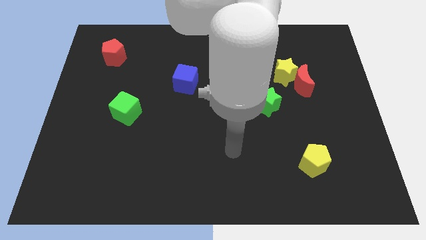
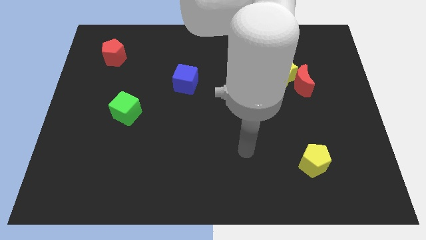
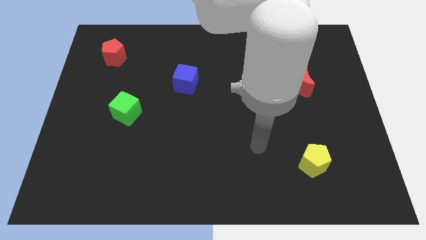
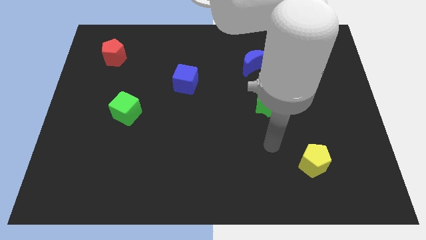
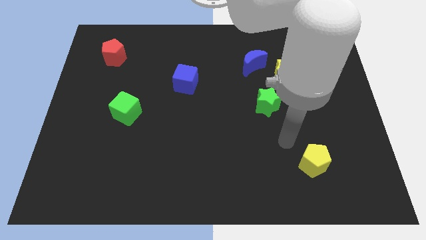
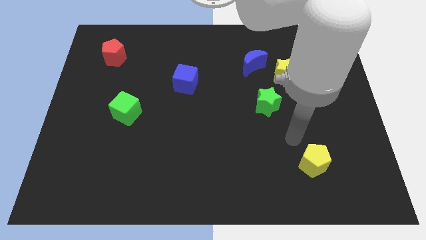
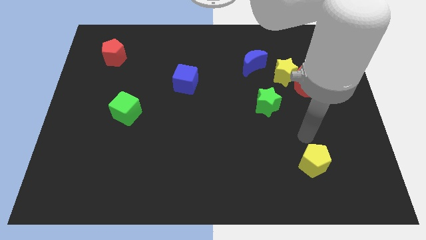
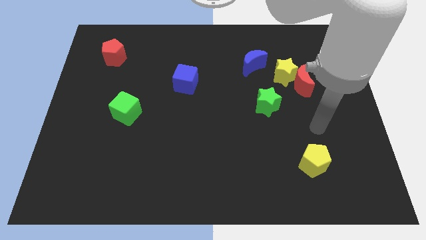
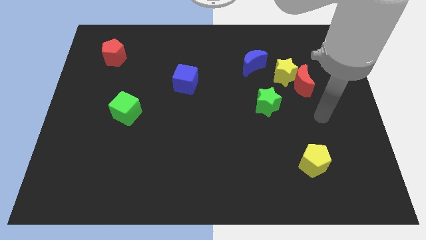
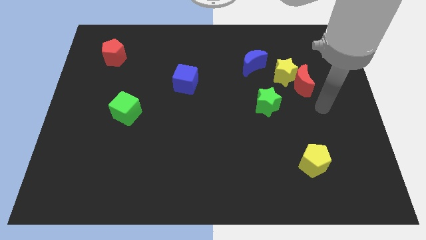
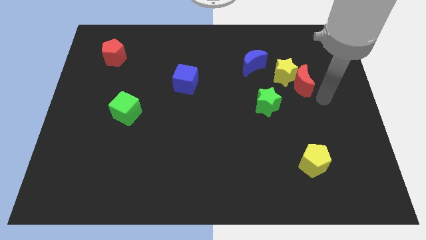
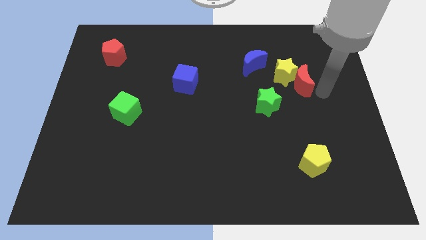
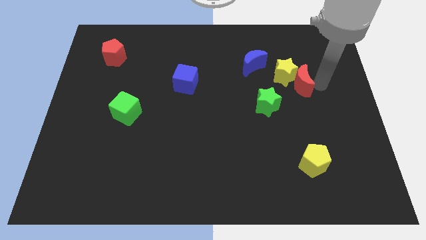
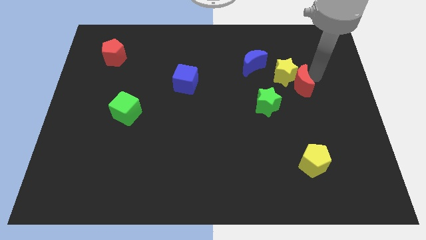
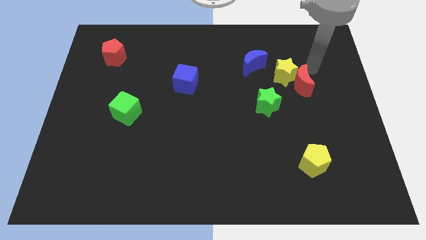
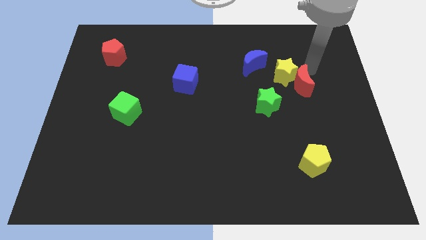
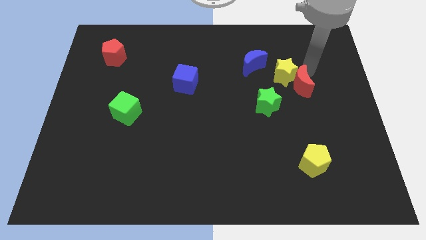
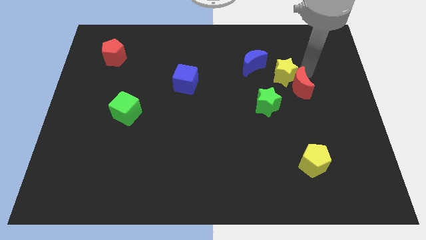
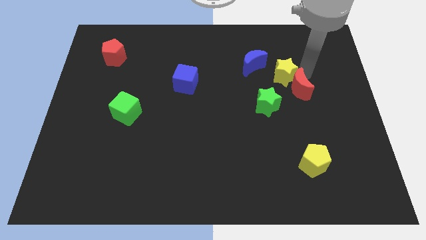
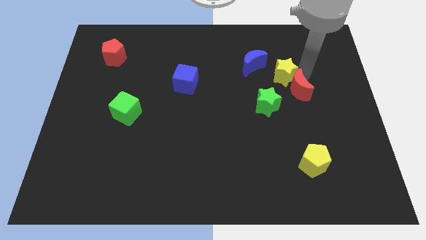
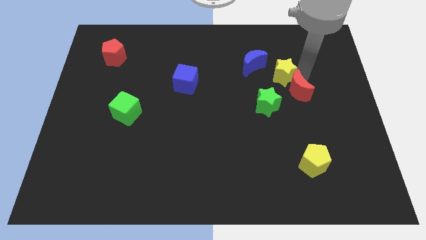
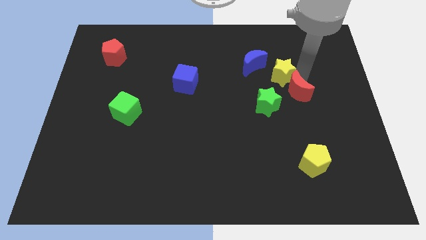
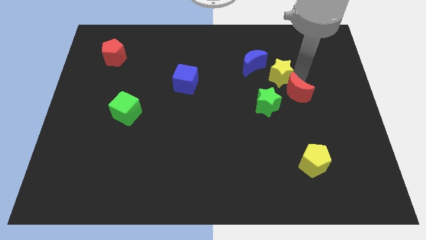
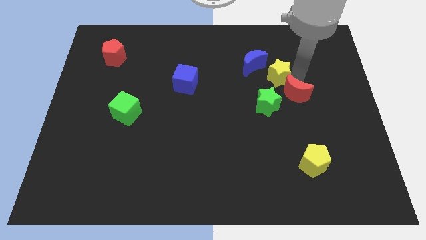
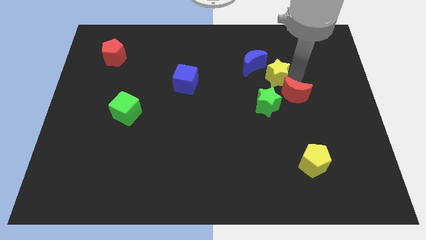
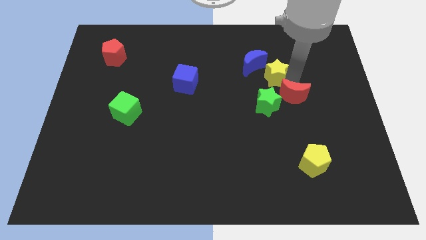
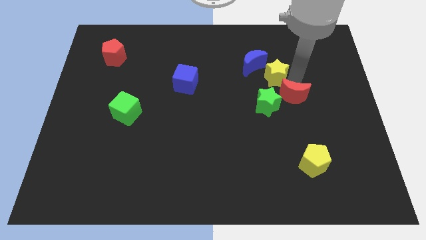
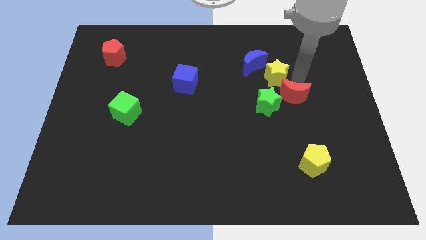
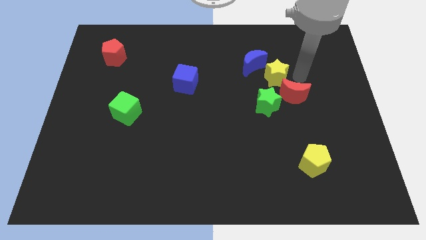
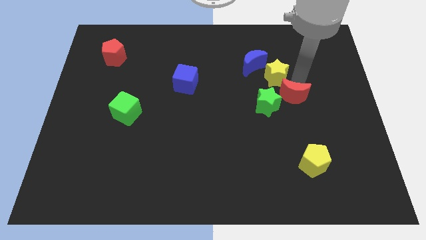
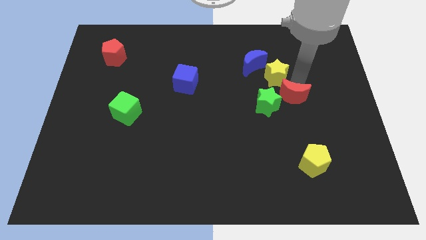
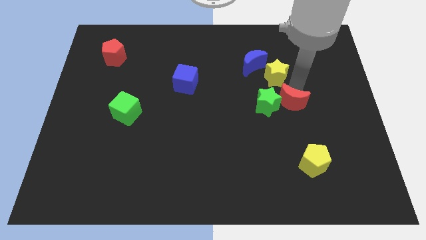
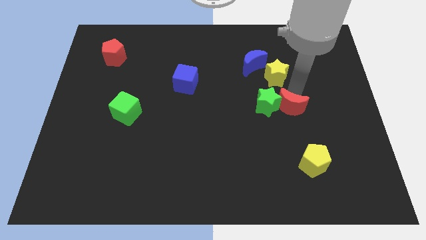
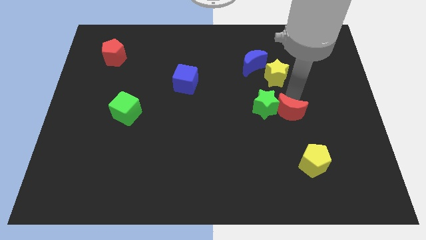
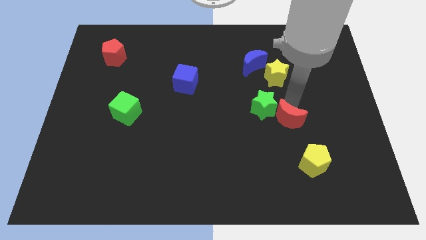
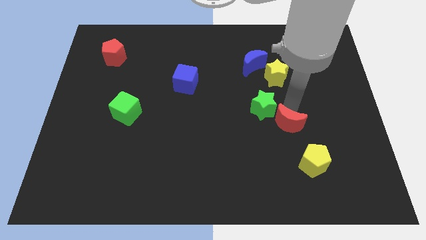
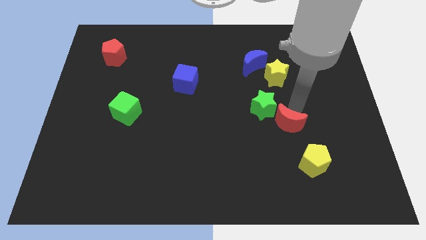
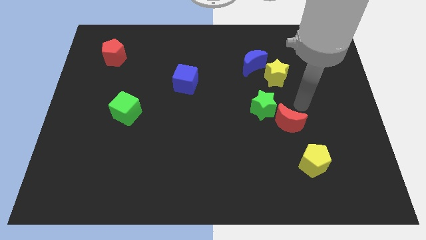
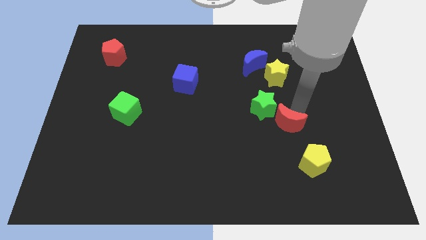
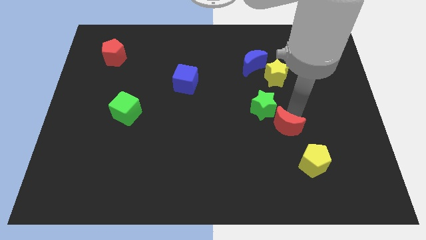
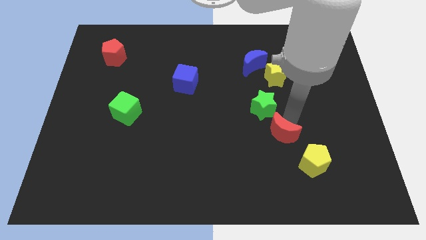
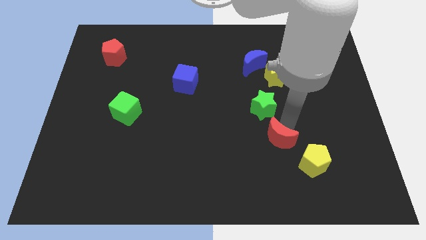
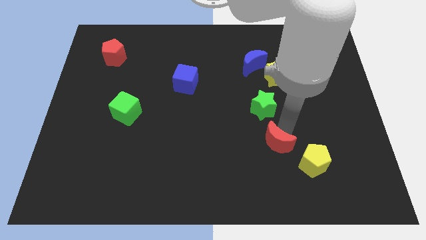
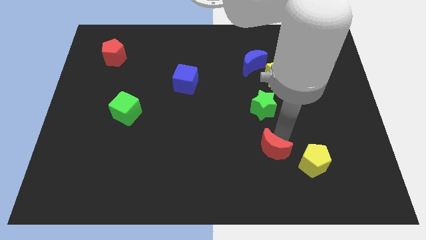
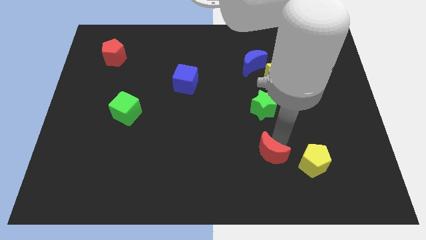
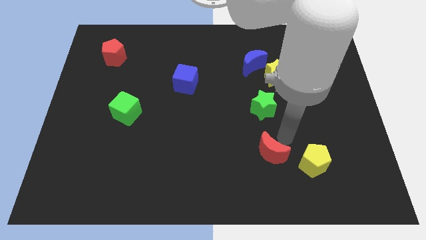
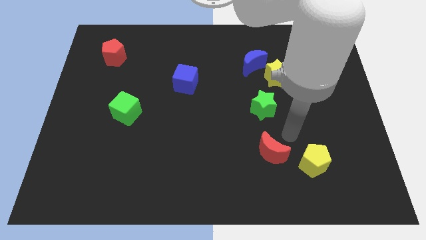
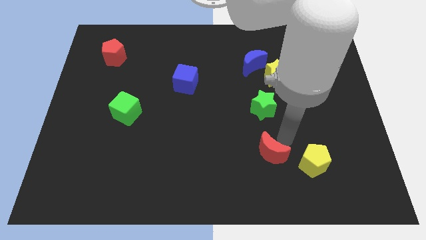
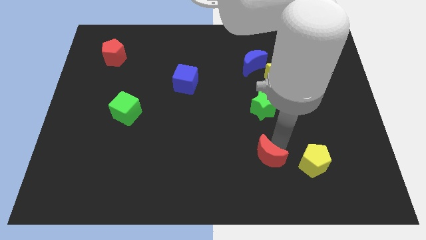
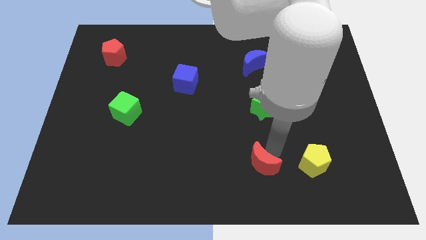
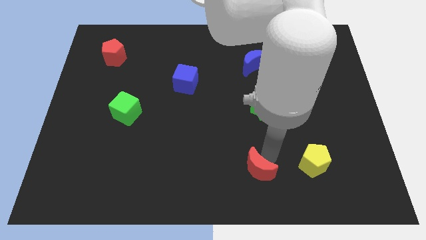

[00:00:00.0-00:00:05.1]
push the red moon to the bottom side

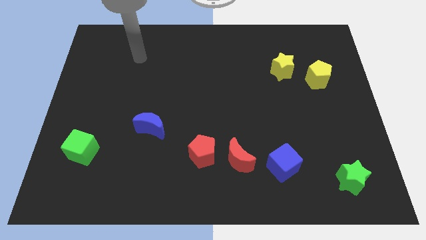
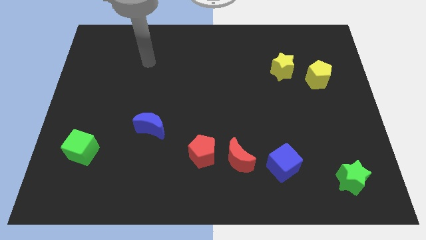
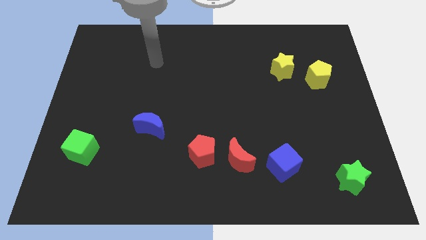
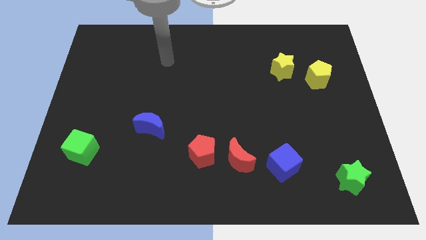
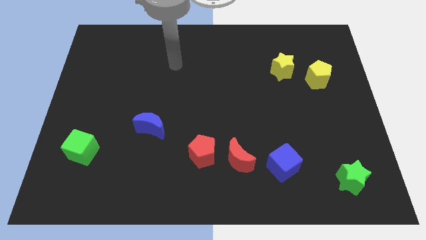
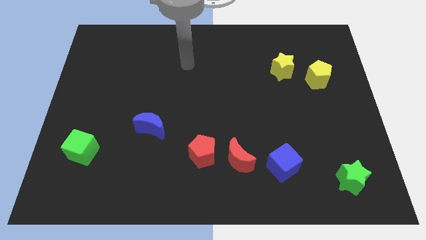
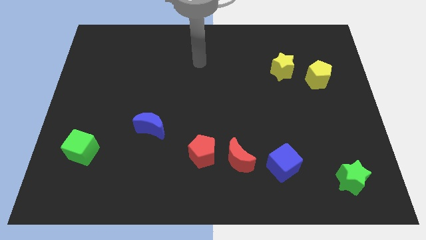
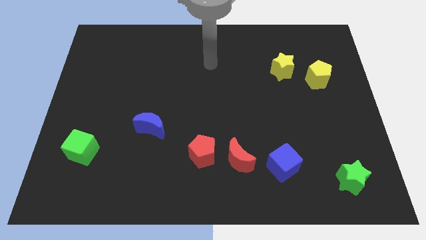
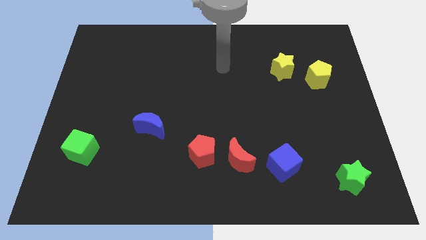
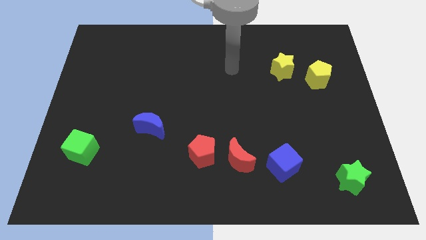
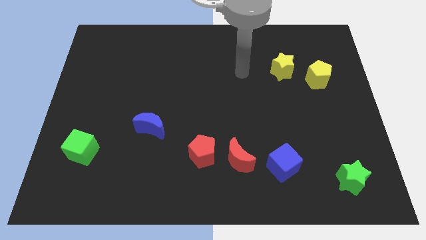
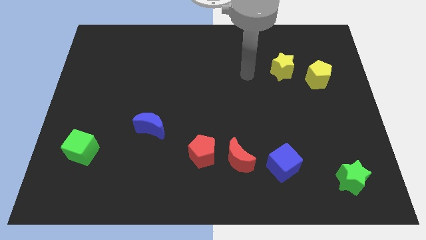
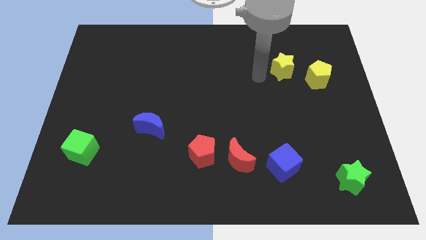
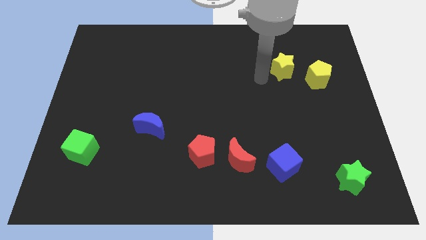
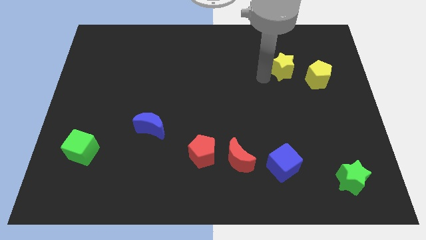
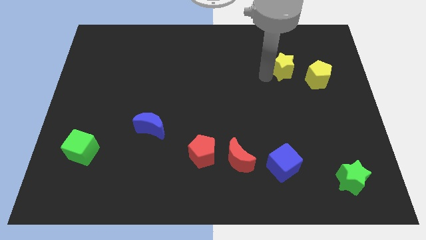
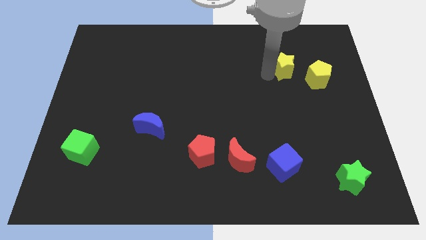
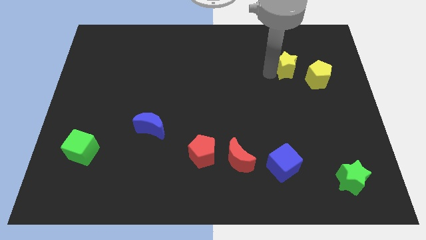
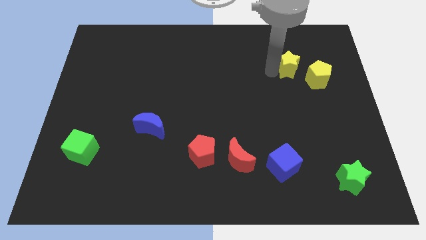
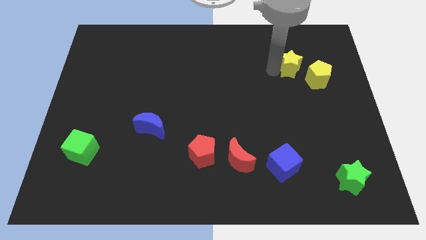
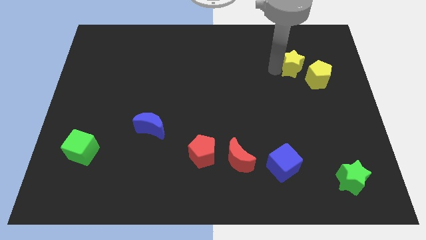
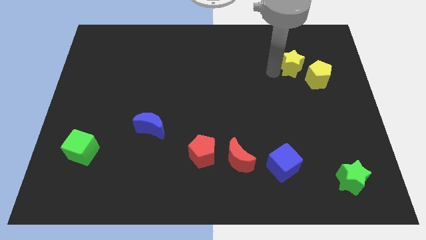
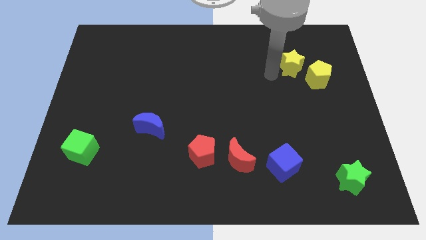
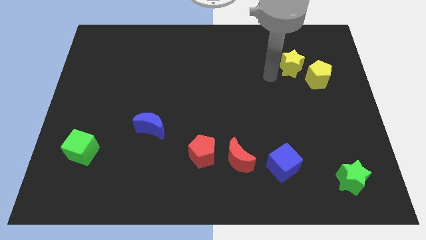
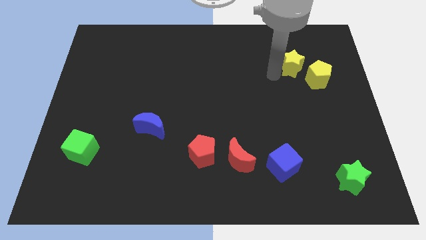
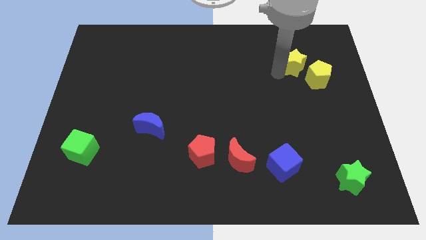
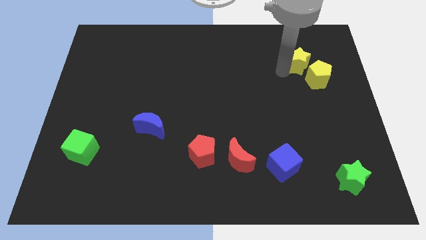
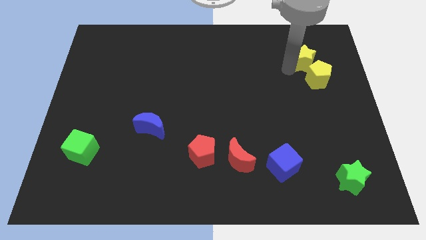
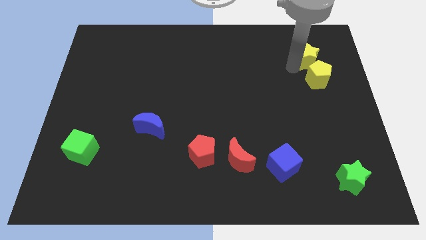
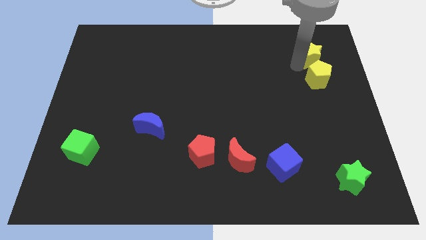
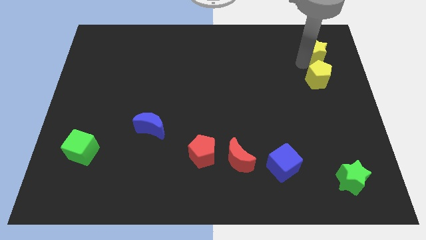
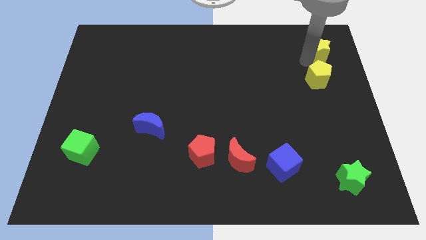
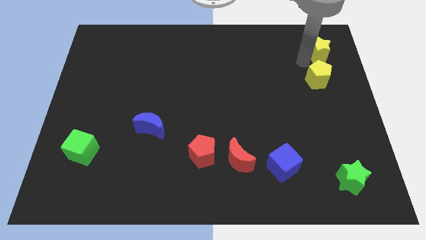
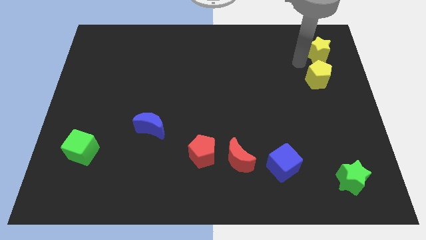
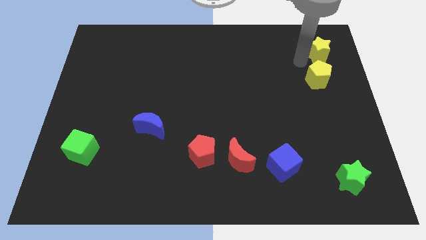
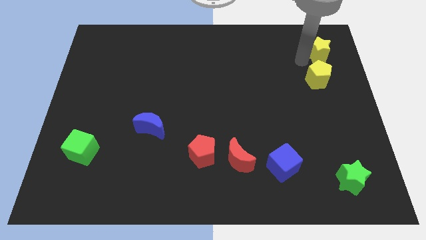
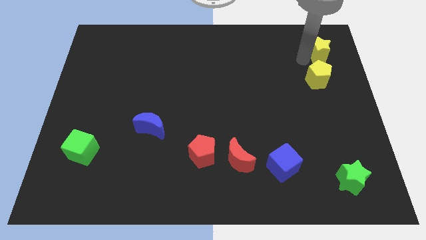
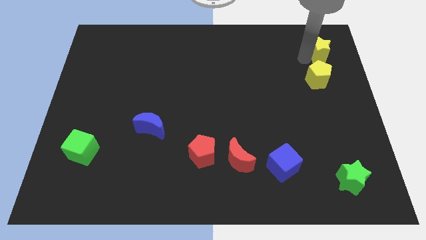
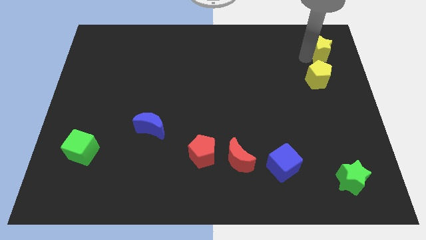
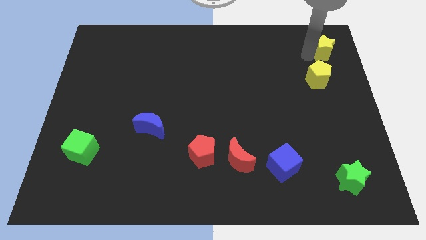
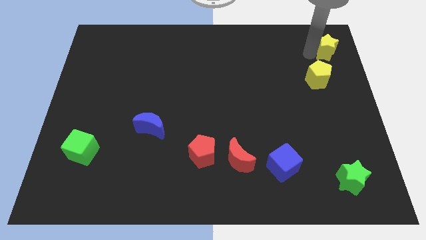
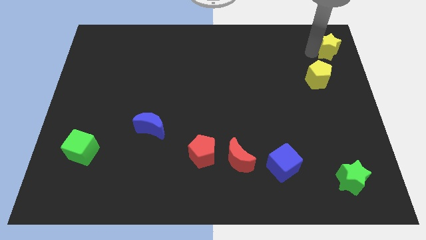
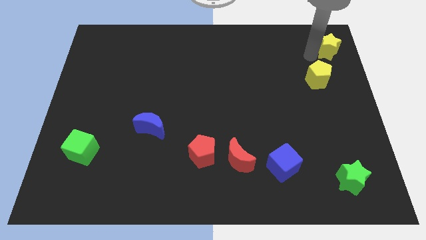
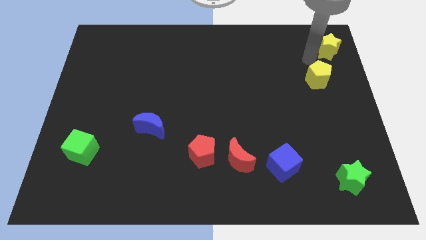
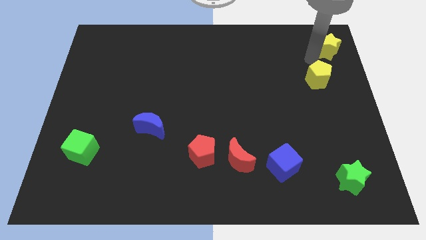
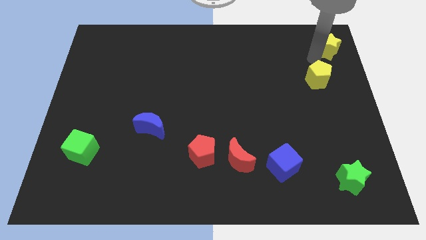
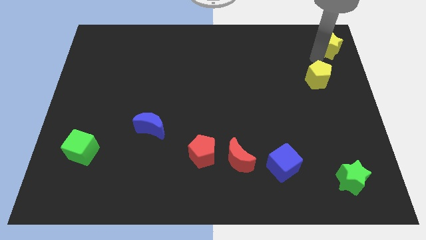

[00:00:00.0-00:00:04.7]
move the yellow star to the top right of the board
